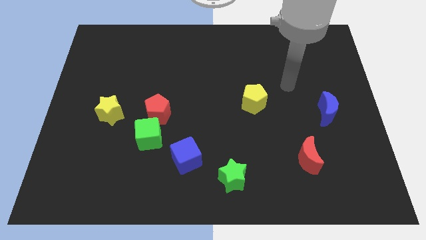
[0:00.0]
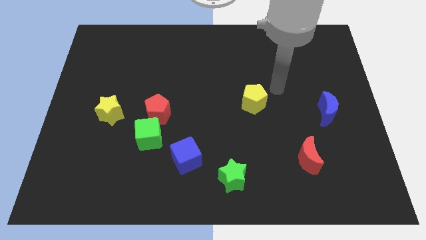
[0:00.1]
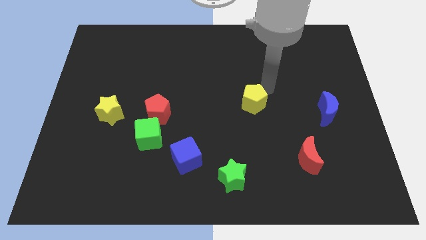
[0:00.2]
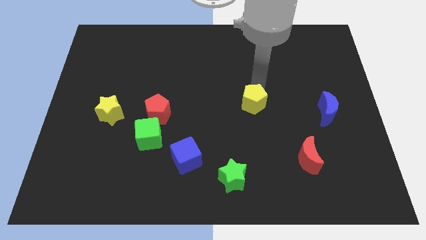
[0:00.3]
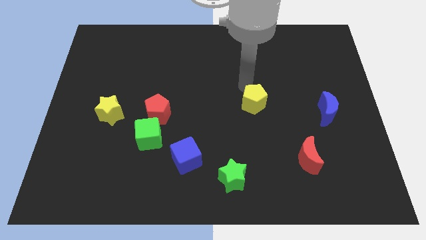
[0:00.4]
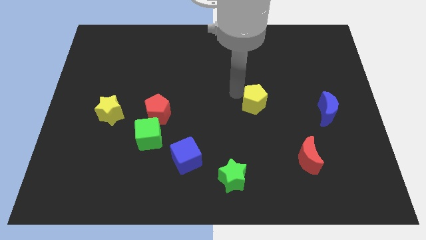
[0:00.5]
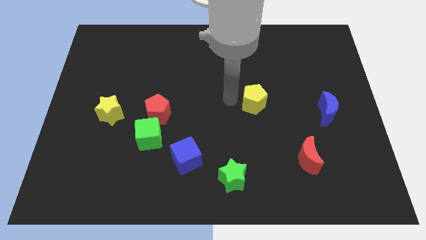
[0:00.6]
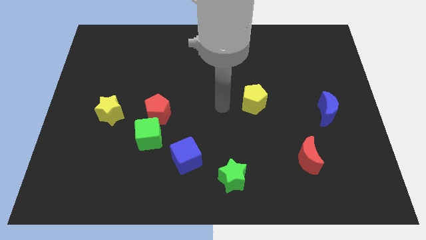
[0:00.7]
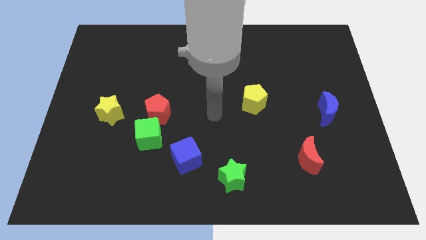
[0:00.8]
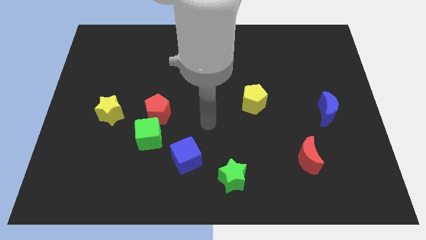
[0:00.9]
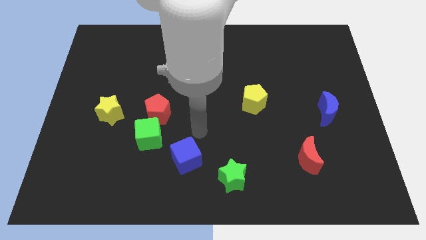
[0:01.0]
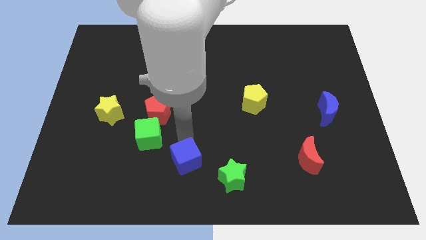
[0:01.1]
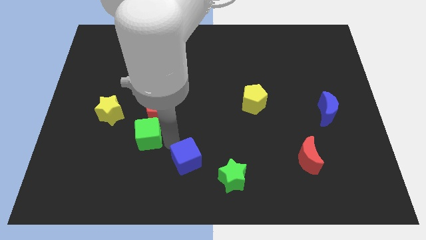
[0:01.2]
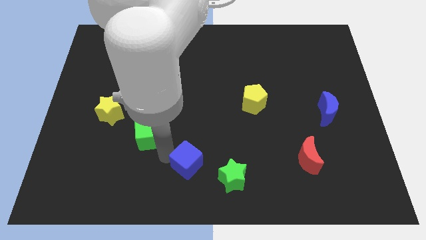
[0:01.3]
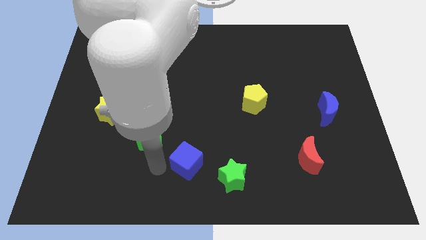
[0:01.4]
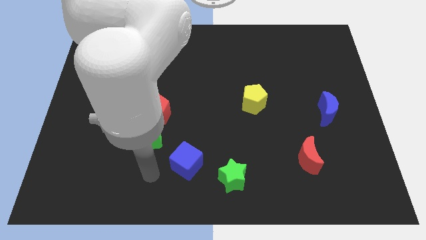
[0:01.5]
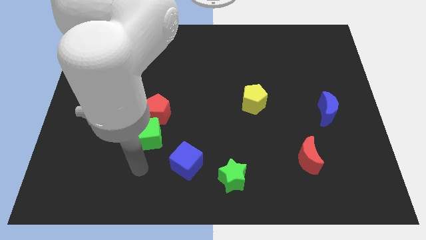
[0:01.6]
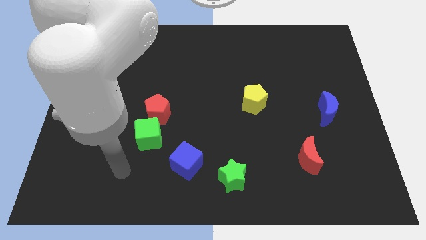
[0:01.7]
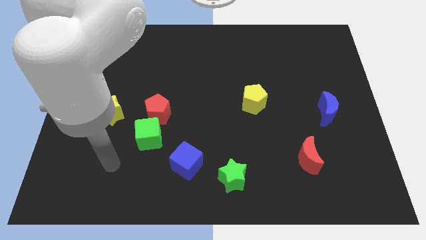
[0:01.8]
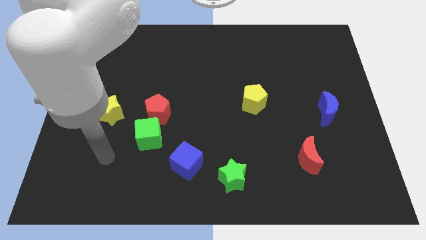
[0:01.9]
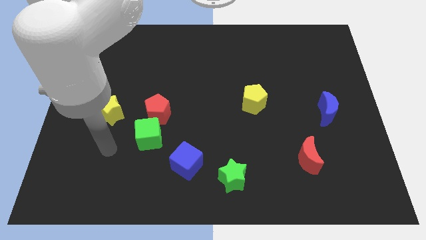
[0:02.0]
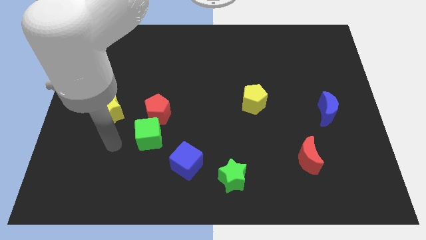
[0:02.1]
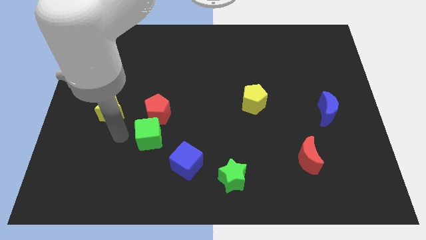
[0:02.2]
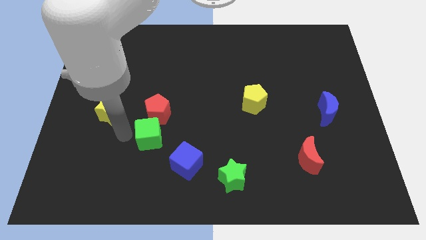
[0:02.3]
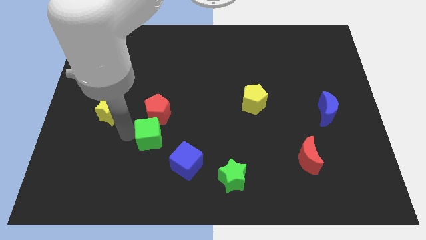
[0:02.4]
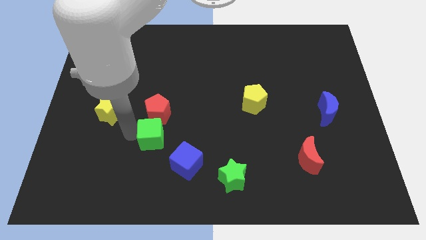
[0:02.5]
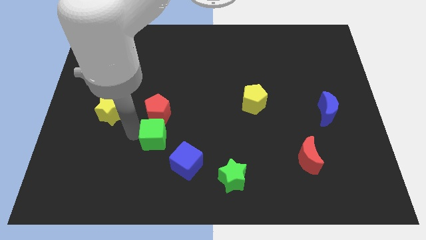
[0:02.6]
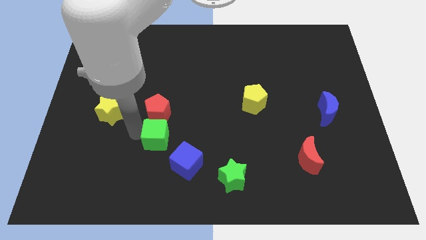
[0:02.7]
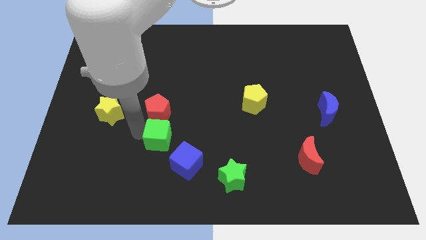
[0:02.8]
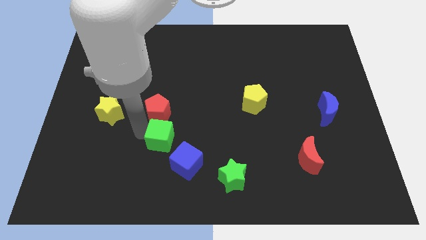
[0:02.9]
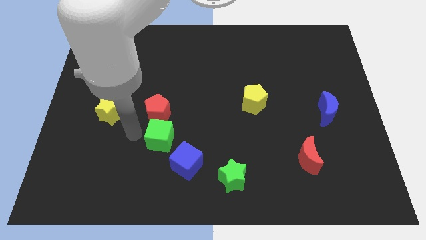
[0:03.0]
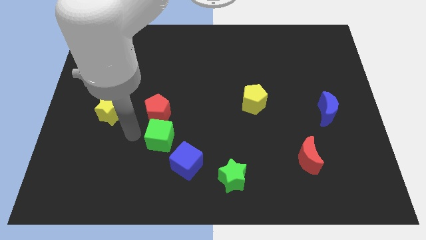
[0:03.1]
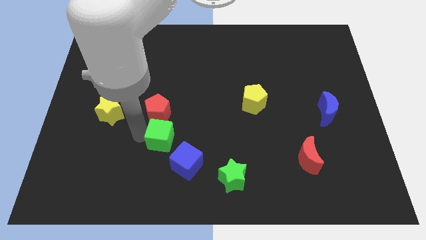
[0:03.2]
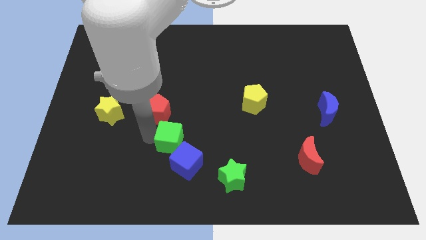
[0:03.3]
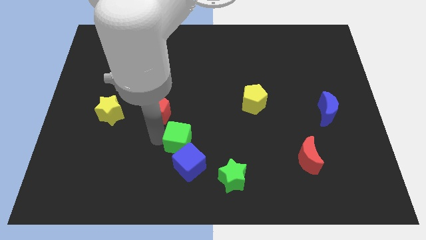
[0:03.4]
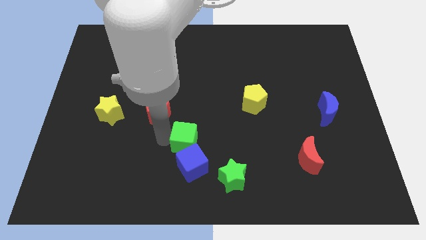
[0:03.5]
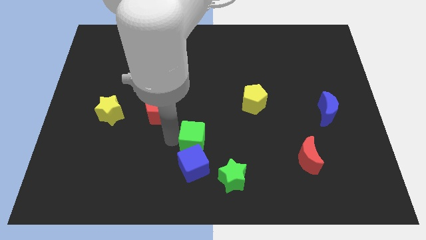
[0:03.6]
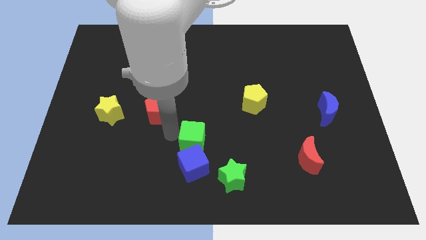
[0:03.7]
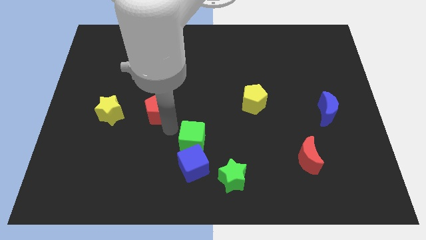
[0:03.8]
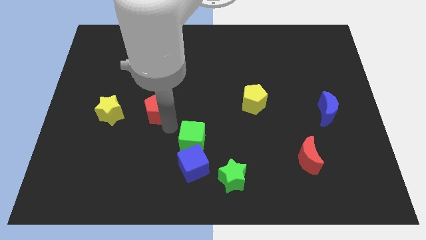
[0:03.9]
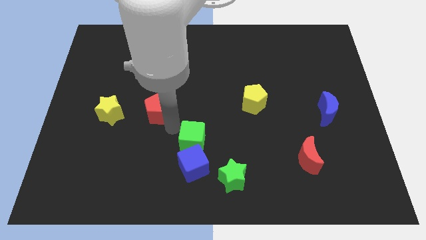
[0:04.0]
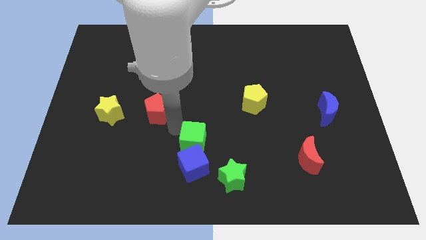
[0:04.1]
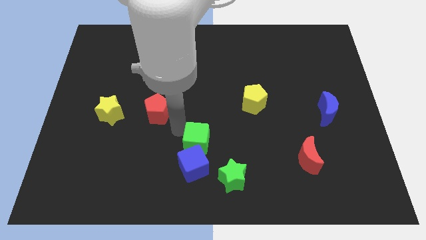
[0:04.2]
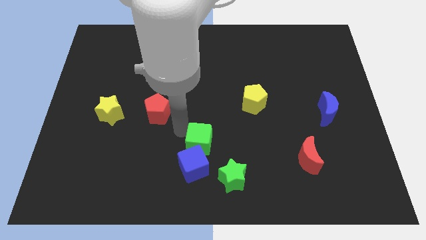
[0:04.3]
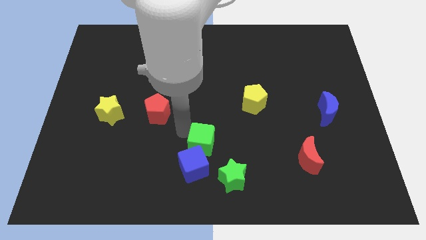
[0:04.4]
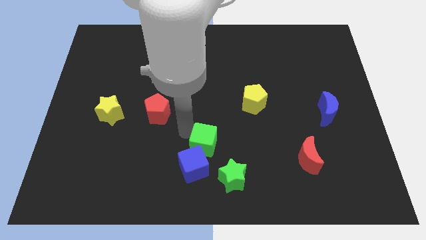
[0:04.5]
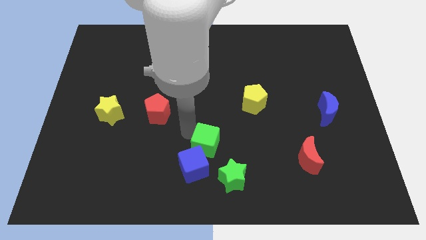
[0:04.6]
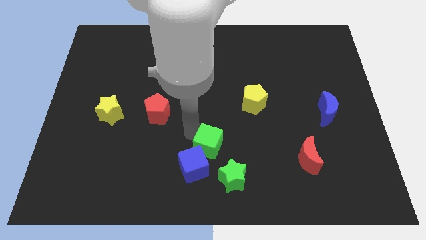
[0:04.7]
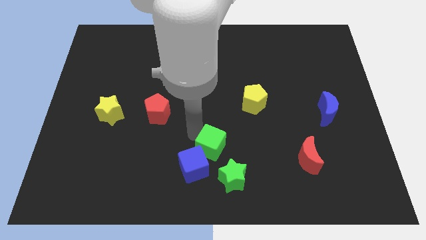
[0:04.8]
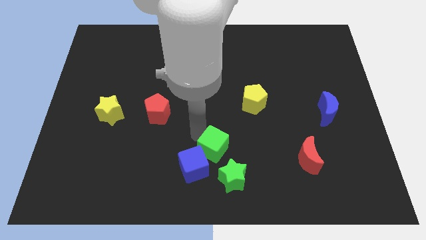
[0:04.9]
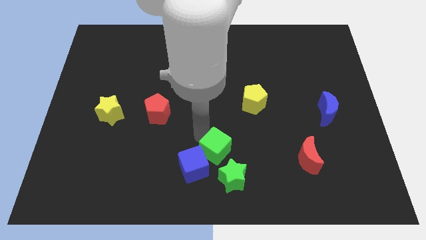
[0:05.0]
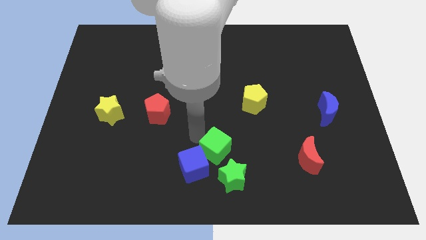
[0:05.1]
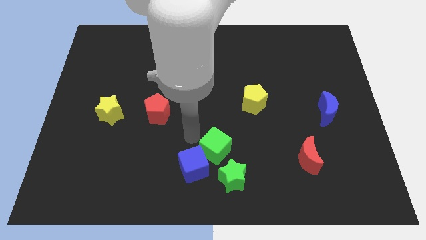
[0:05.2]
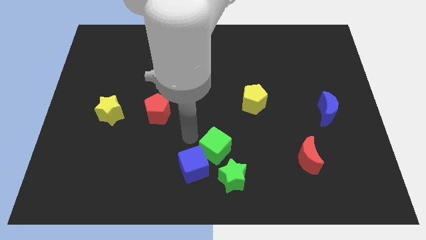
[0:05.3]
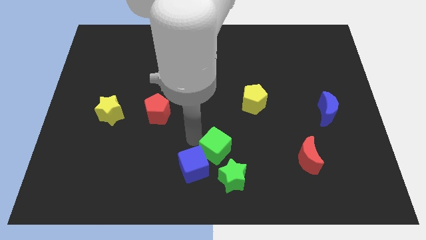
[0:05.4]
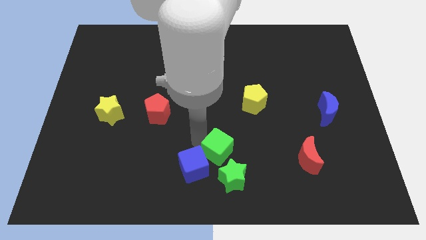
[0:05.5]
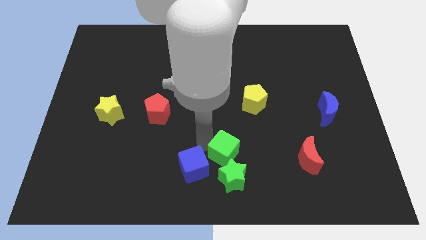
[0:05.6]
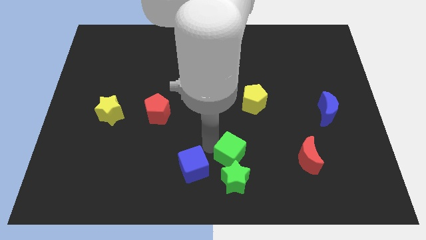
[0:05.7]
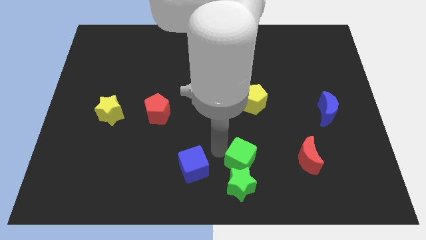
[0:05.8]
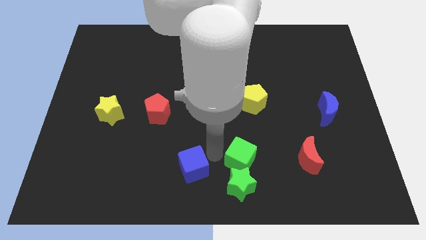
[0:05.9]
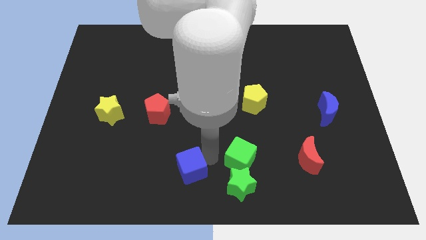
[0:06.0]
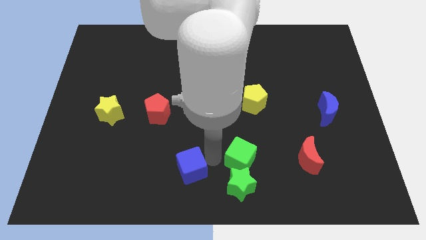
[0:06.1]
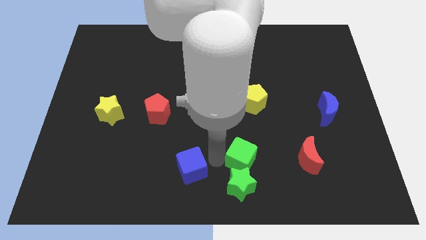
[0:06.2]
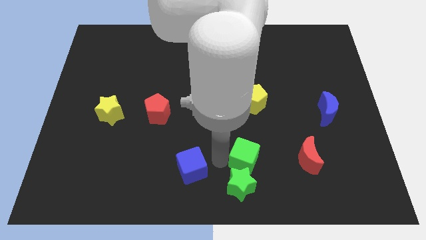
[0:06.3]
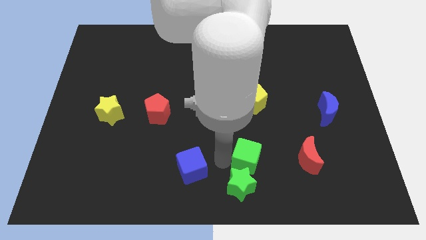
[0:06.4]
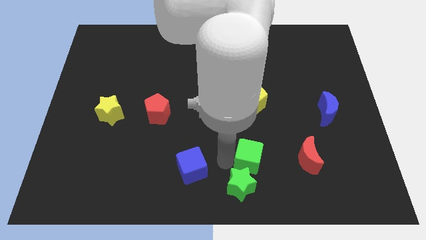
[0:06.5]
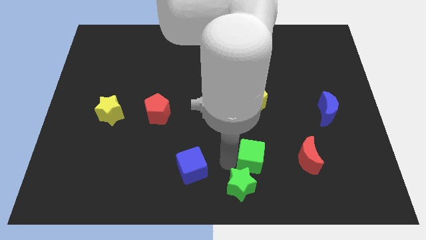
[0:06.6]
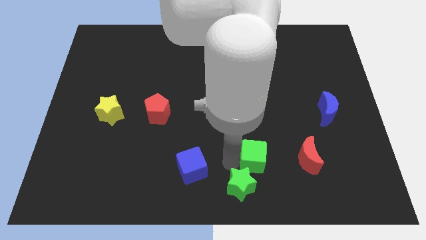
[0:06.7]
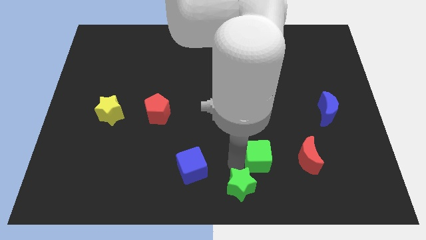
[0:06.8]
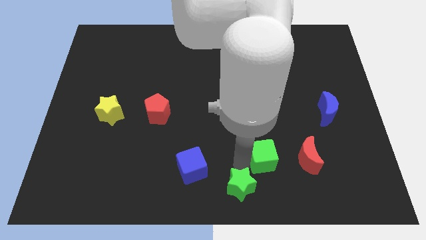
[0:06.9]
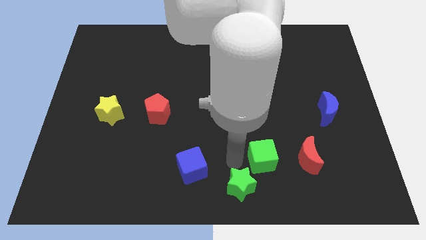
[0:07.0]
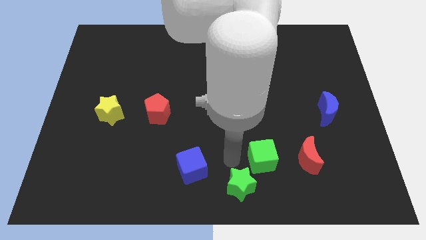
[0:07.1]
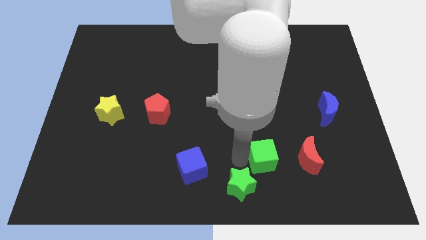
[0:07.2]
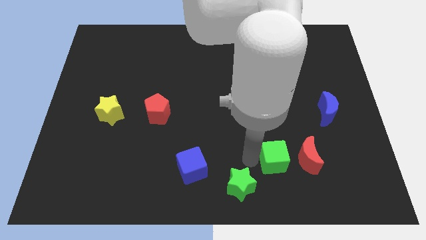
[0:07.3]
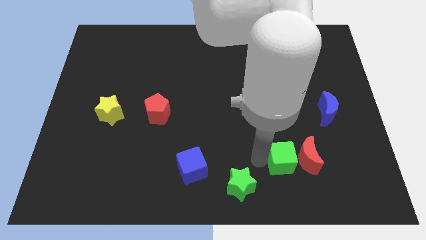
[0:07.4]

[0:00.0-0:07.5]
move the green cube next to the red moon
